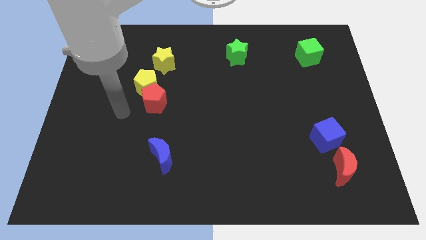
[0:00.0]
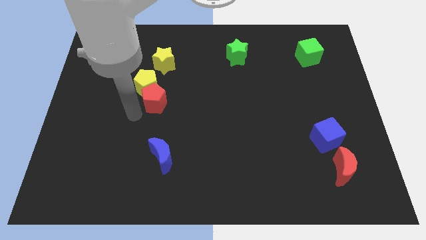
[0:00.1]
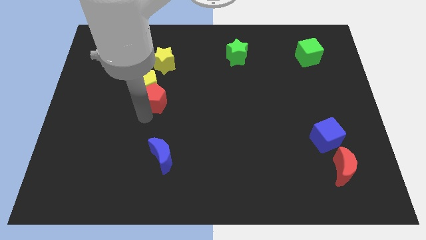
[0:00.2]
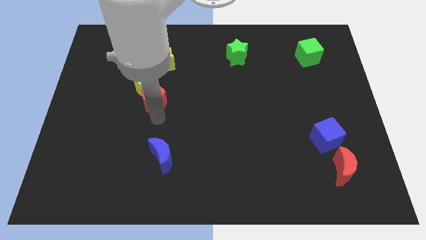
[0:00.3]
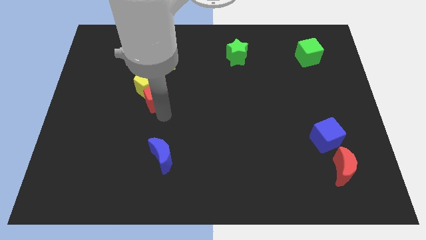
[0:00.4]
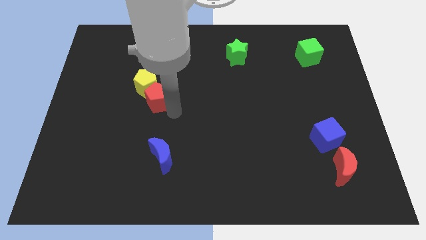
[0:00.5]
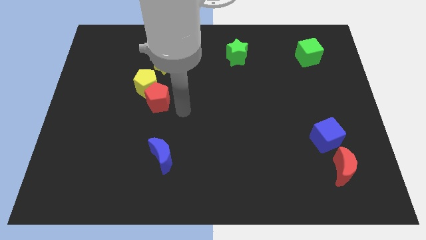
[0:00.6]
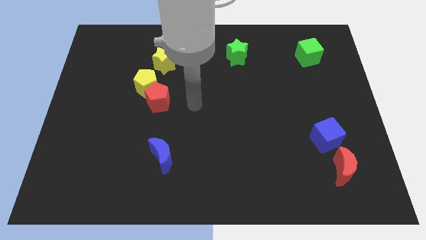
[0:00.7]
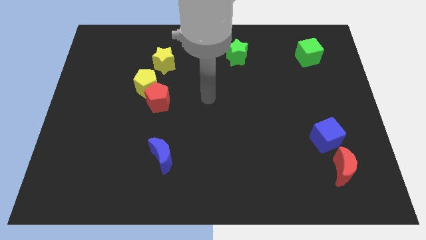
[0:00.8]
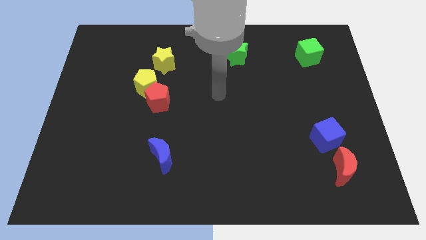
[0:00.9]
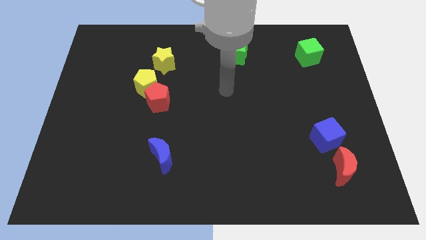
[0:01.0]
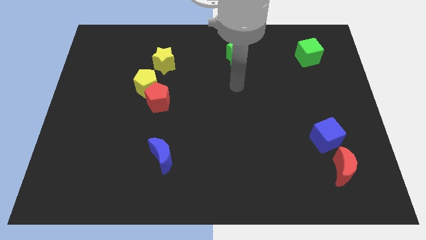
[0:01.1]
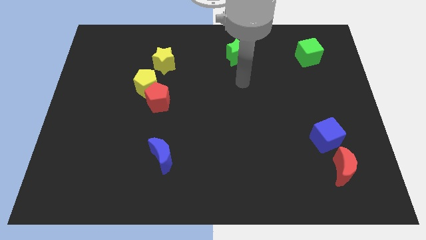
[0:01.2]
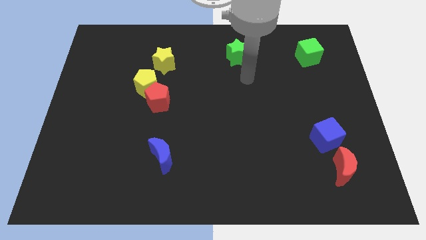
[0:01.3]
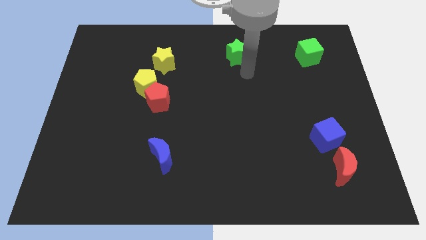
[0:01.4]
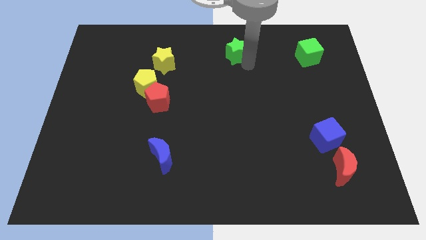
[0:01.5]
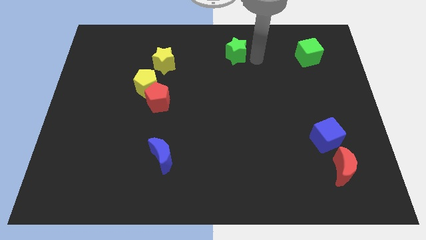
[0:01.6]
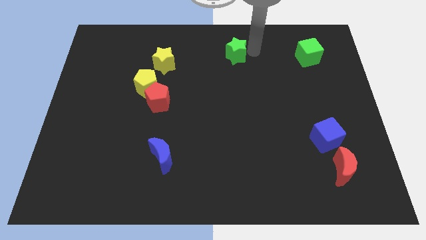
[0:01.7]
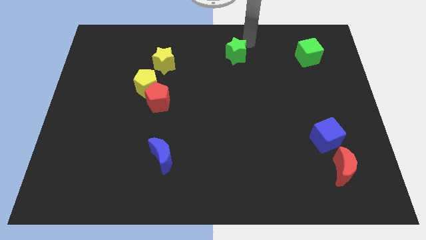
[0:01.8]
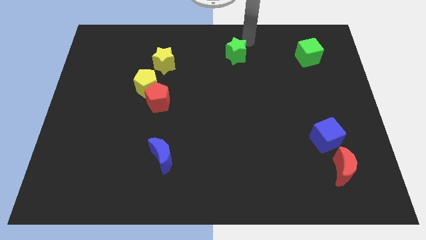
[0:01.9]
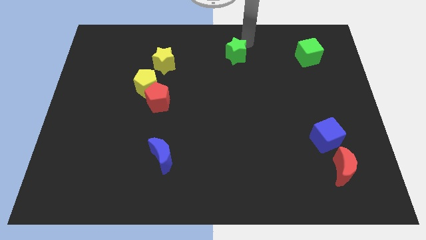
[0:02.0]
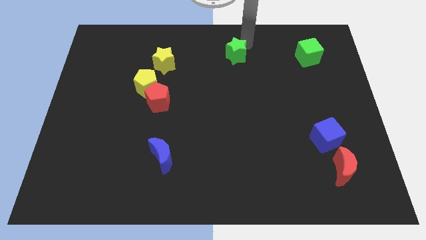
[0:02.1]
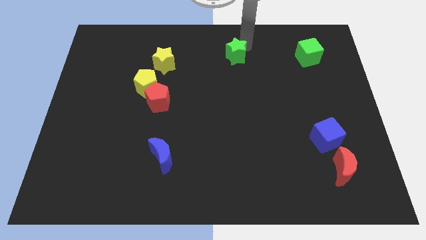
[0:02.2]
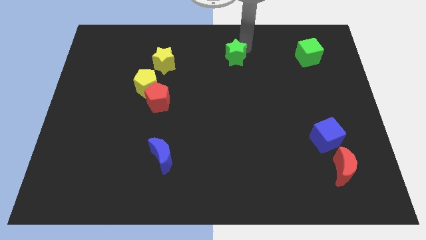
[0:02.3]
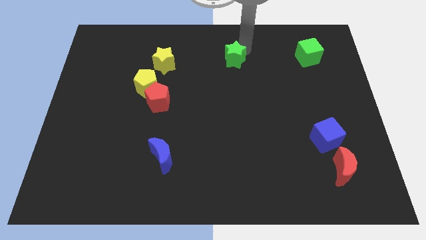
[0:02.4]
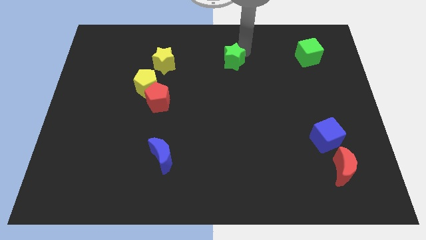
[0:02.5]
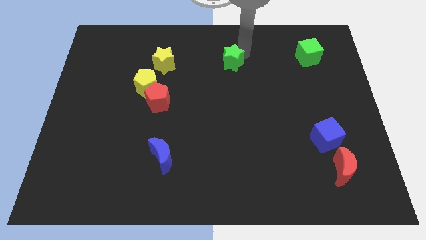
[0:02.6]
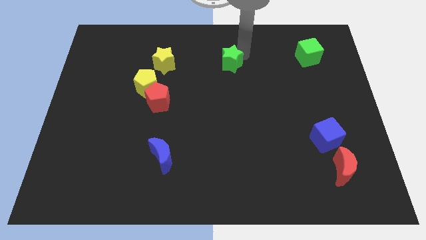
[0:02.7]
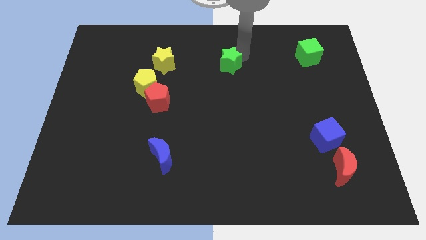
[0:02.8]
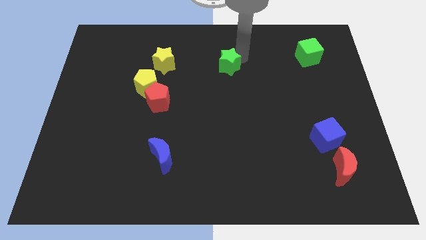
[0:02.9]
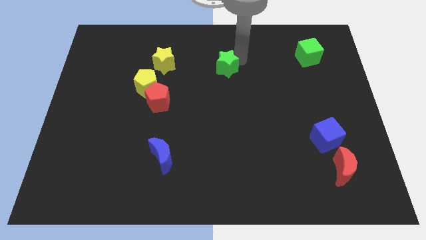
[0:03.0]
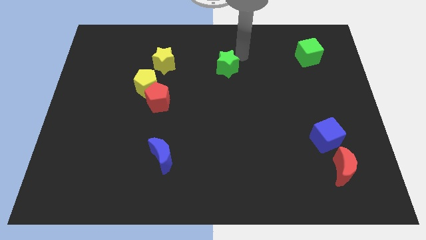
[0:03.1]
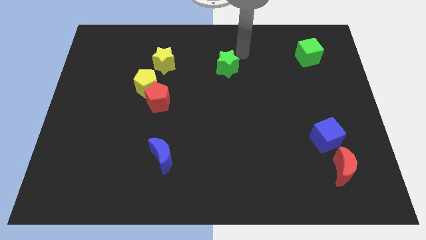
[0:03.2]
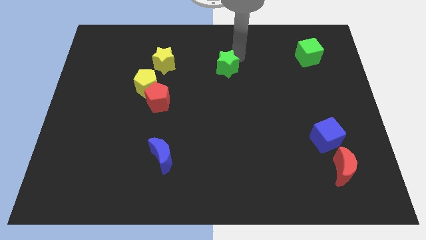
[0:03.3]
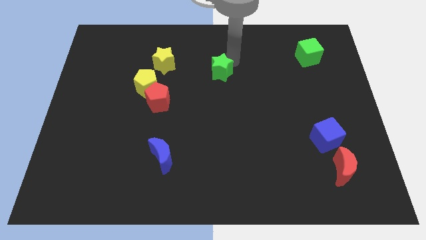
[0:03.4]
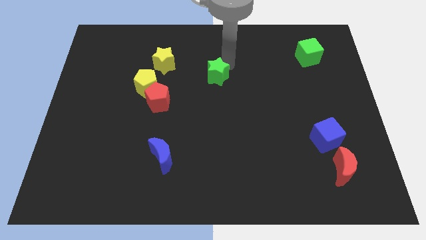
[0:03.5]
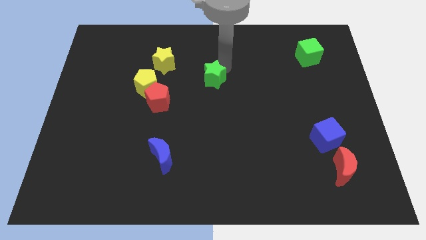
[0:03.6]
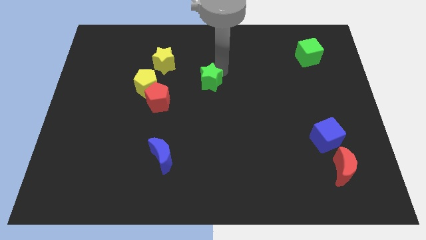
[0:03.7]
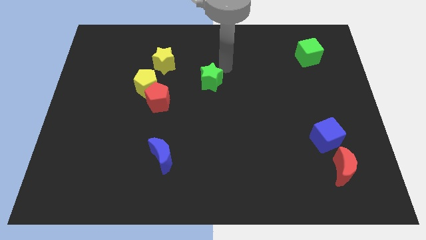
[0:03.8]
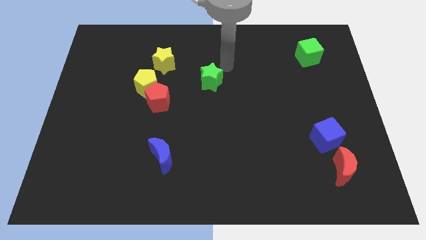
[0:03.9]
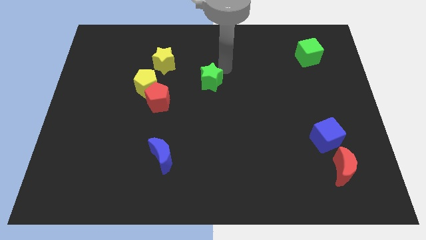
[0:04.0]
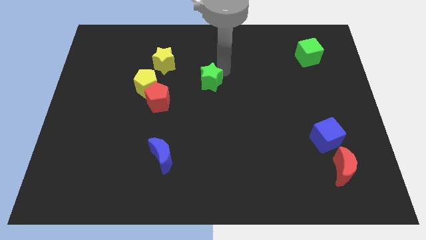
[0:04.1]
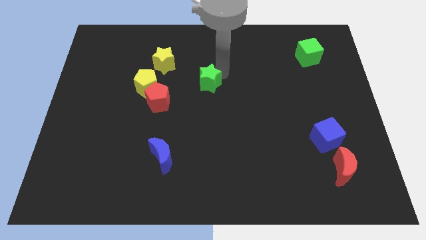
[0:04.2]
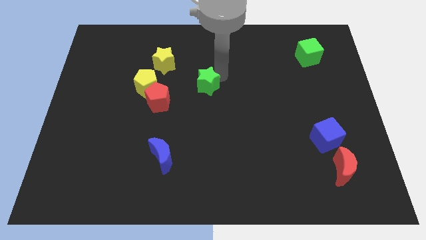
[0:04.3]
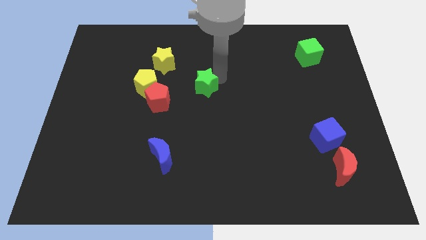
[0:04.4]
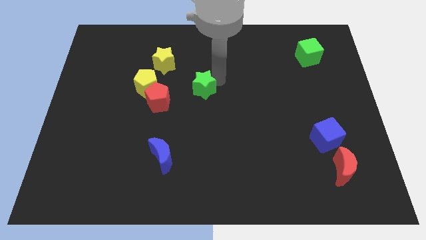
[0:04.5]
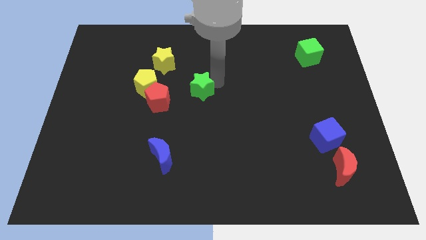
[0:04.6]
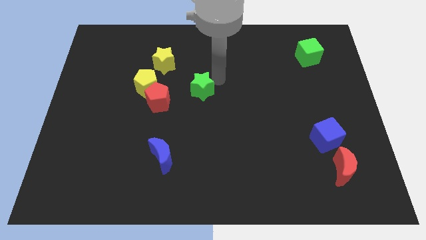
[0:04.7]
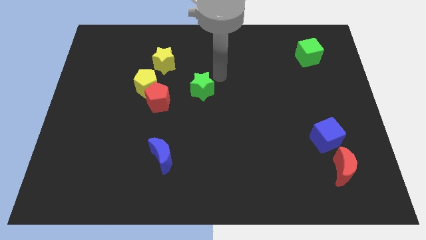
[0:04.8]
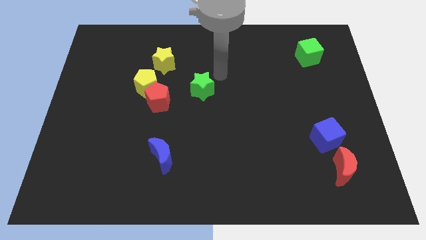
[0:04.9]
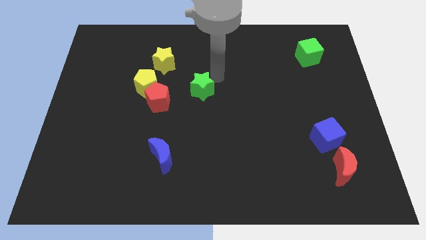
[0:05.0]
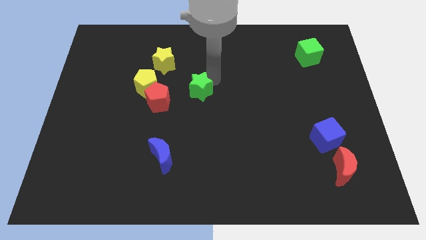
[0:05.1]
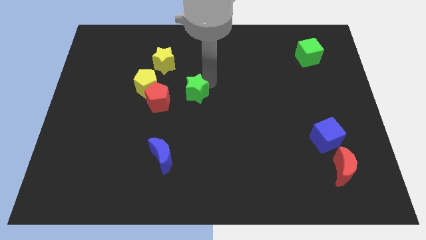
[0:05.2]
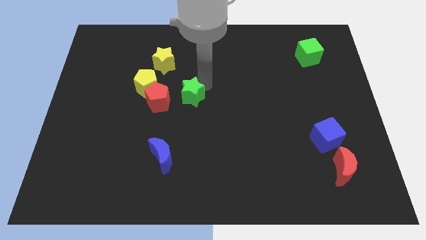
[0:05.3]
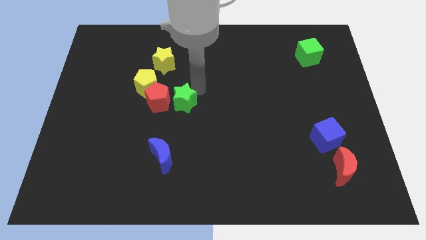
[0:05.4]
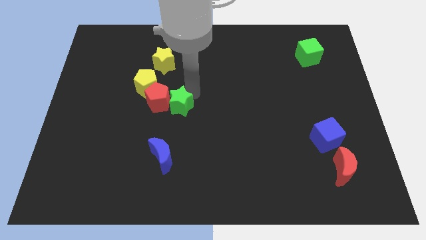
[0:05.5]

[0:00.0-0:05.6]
put the green star to the top of the blue moon

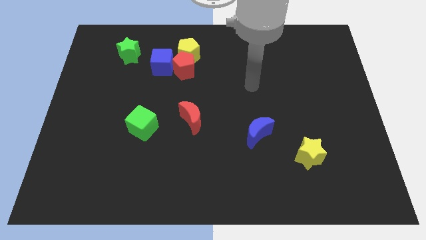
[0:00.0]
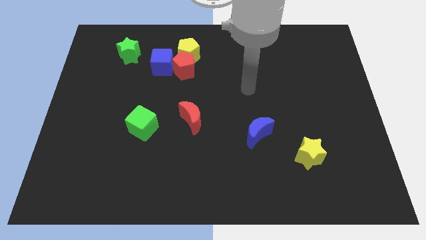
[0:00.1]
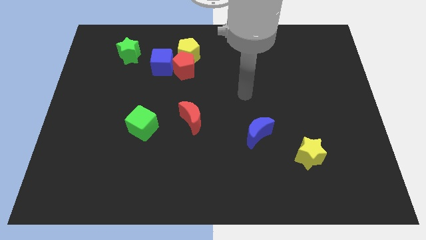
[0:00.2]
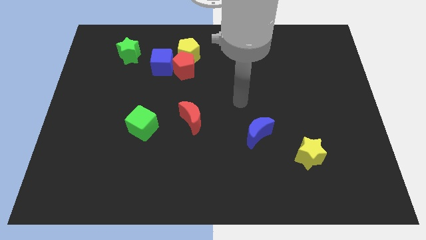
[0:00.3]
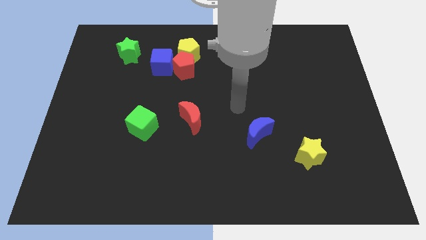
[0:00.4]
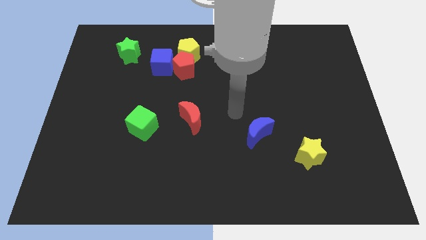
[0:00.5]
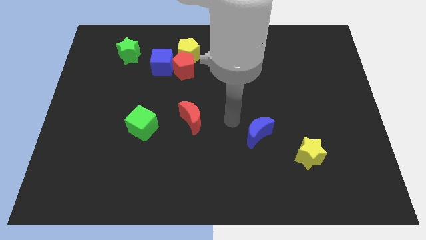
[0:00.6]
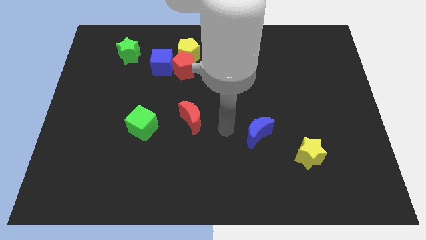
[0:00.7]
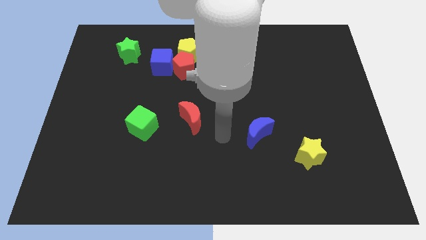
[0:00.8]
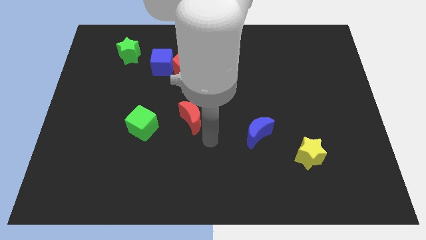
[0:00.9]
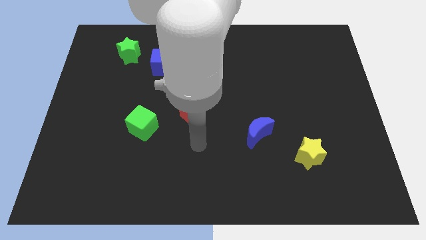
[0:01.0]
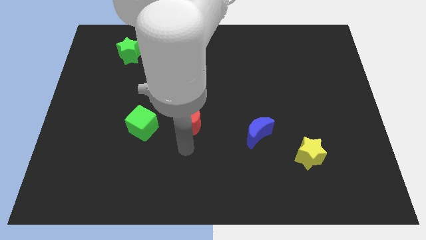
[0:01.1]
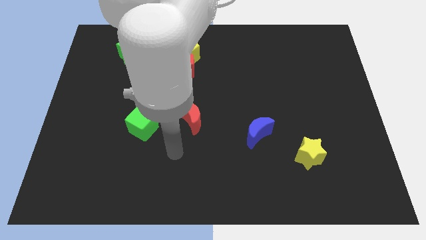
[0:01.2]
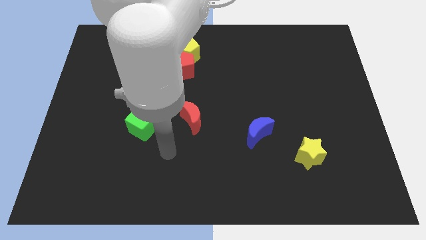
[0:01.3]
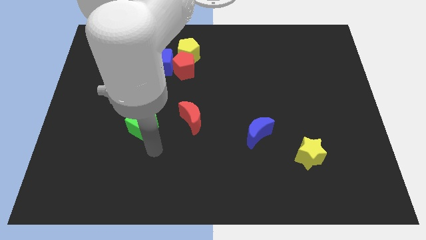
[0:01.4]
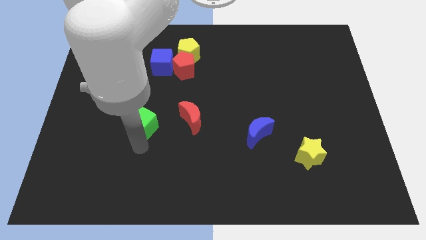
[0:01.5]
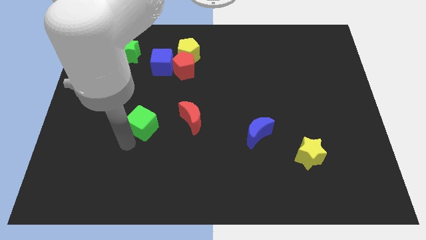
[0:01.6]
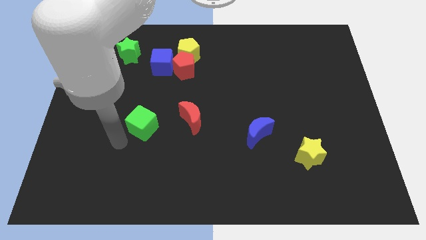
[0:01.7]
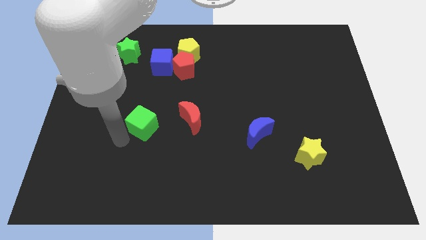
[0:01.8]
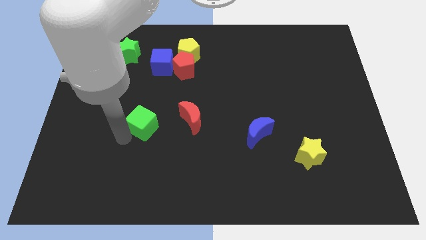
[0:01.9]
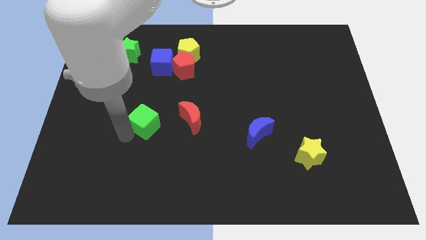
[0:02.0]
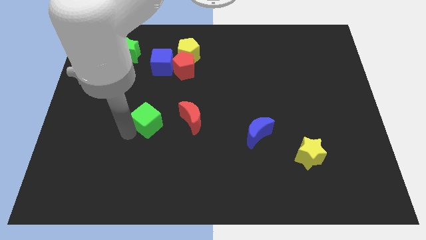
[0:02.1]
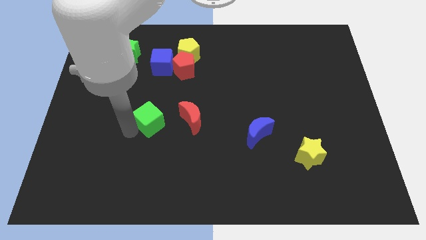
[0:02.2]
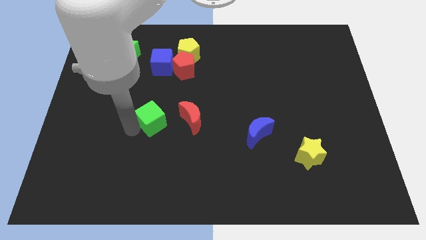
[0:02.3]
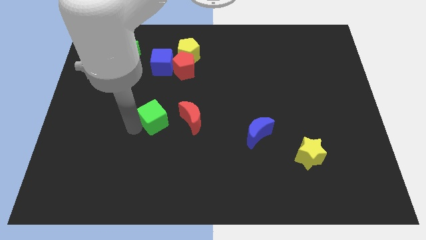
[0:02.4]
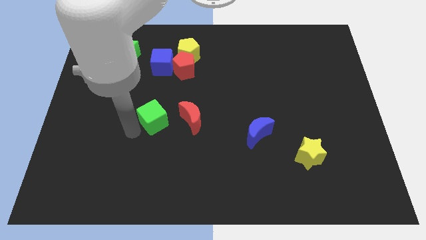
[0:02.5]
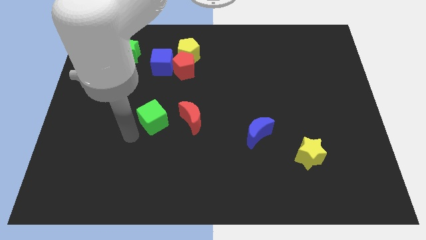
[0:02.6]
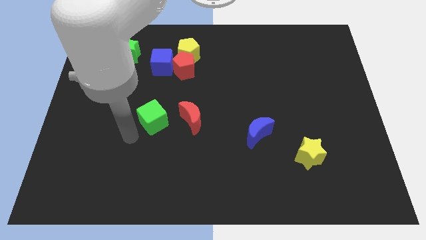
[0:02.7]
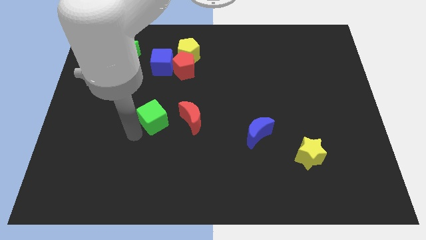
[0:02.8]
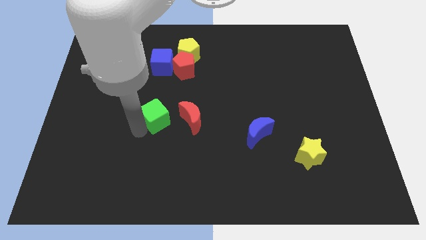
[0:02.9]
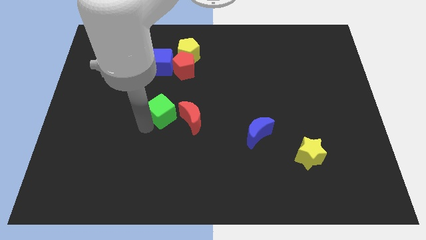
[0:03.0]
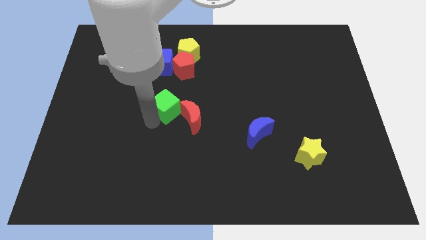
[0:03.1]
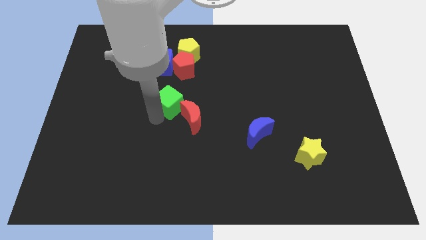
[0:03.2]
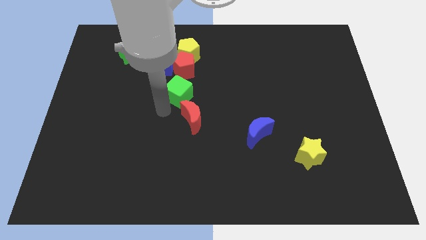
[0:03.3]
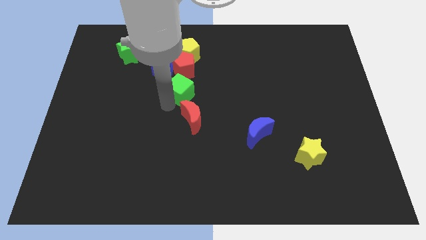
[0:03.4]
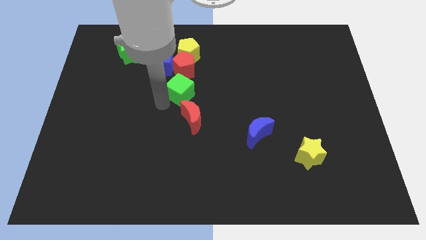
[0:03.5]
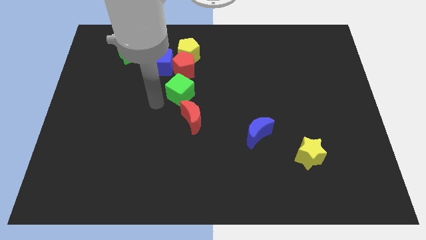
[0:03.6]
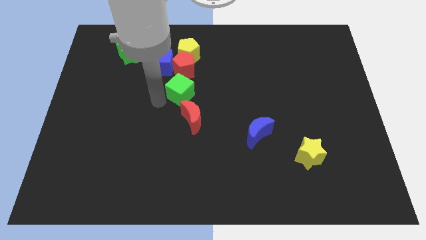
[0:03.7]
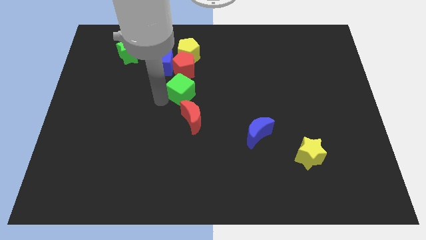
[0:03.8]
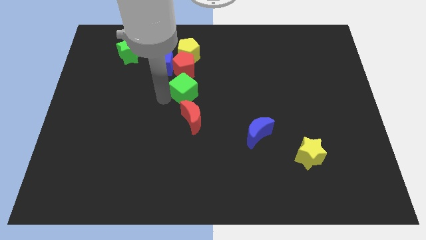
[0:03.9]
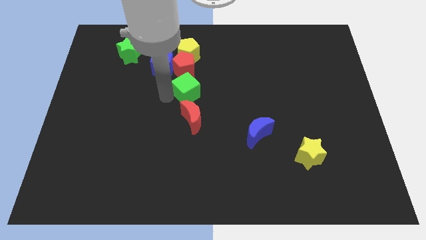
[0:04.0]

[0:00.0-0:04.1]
slide the green cube to the bottom right side of the red pentagon
